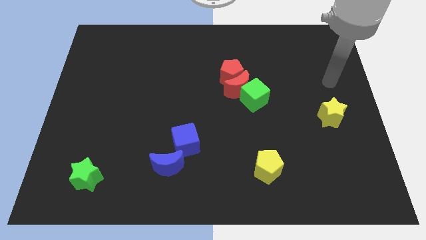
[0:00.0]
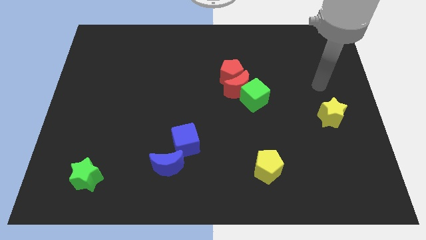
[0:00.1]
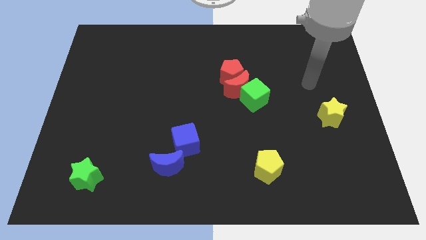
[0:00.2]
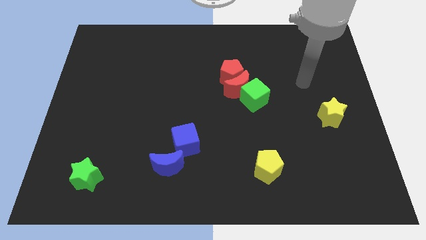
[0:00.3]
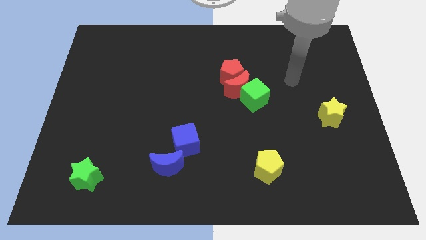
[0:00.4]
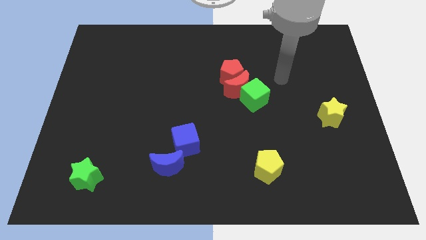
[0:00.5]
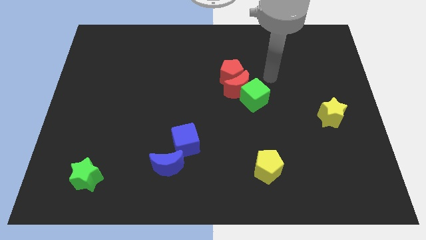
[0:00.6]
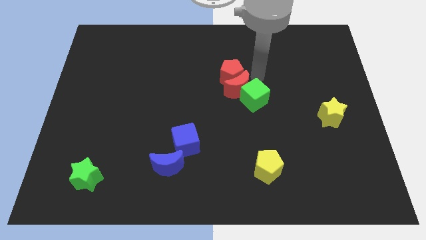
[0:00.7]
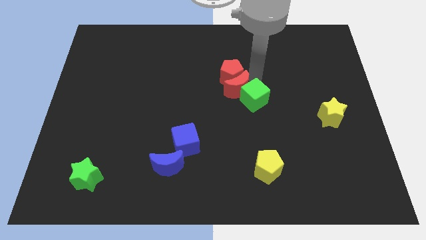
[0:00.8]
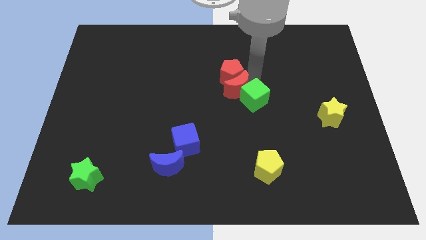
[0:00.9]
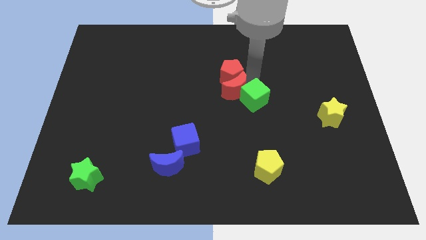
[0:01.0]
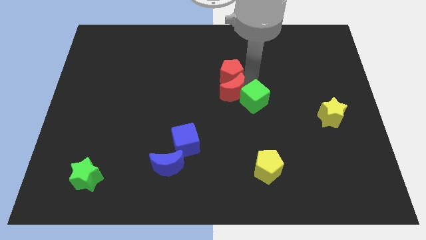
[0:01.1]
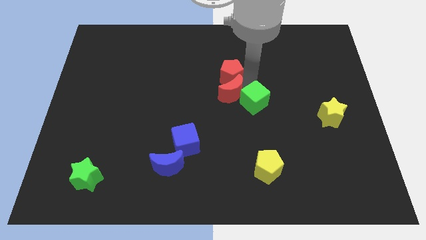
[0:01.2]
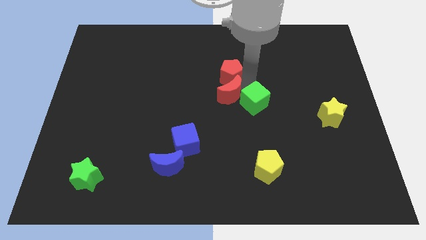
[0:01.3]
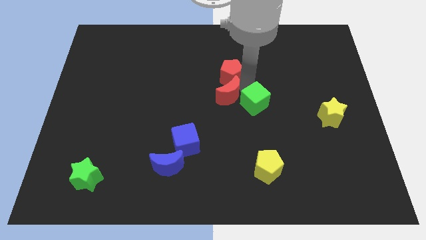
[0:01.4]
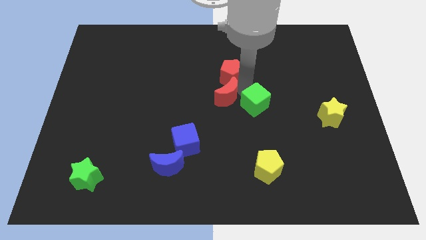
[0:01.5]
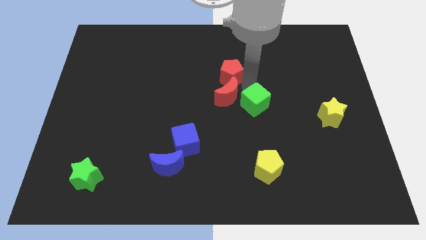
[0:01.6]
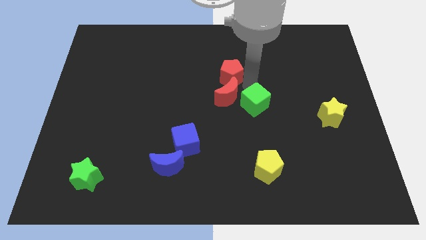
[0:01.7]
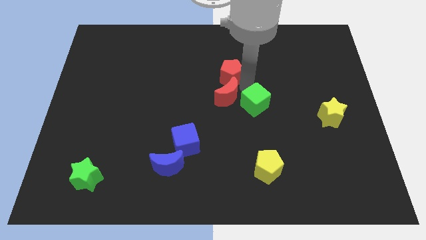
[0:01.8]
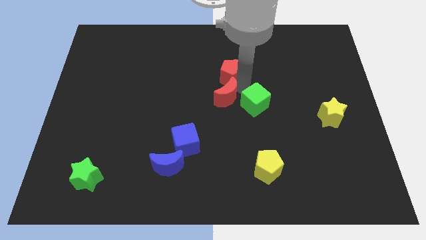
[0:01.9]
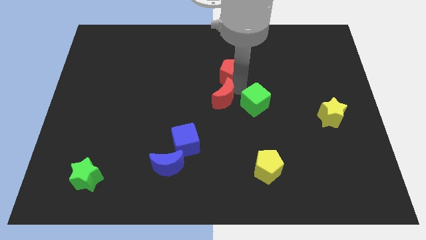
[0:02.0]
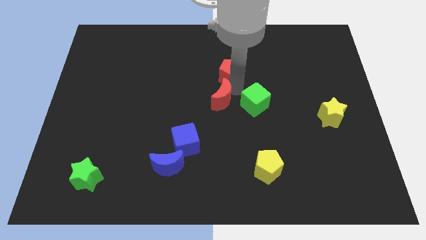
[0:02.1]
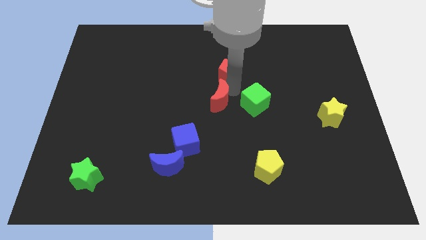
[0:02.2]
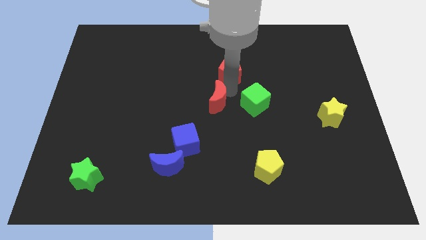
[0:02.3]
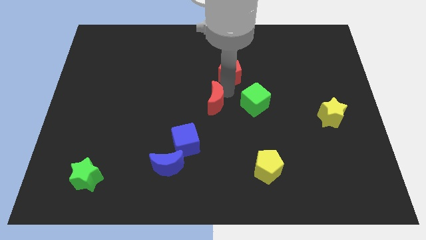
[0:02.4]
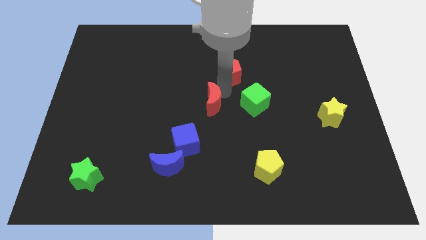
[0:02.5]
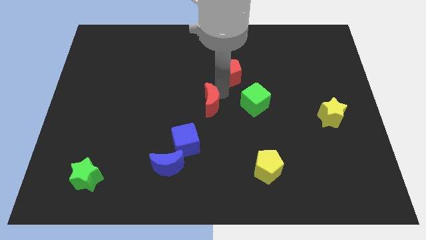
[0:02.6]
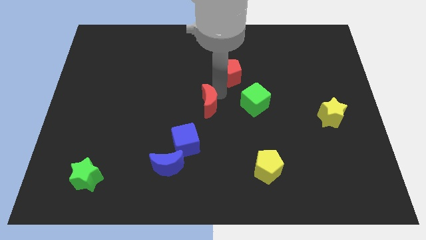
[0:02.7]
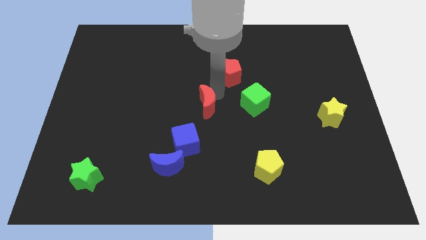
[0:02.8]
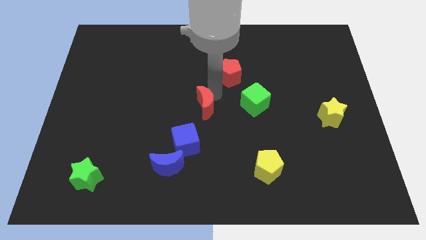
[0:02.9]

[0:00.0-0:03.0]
pull the red moon apart from the green cube and red pentagon

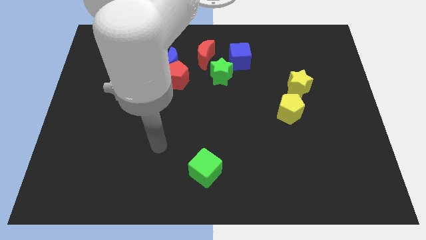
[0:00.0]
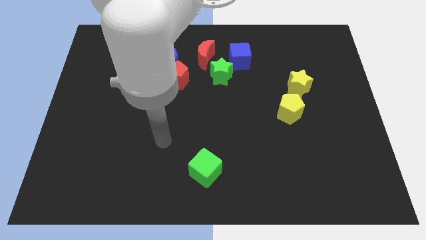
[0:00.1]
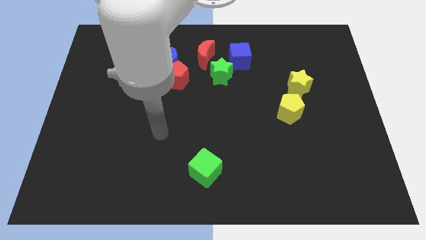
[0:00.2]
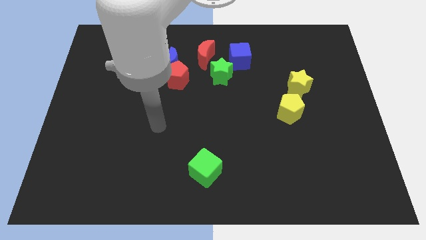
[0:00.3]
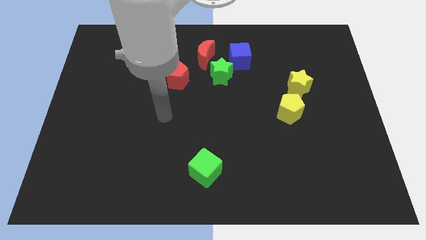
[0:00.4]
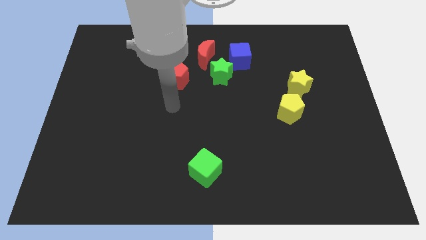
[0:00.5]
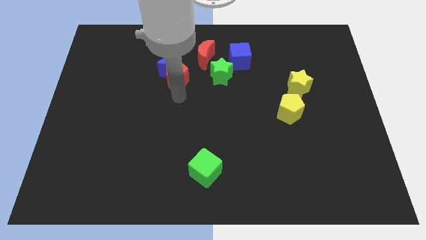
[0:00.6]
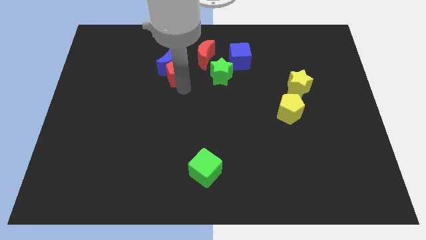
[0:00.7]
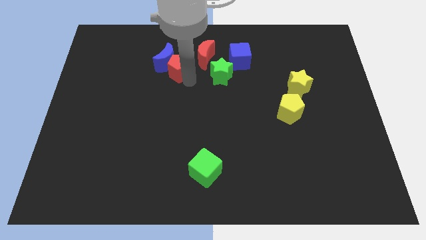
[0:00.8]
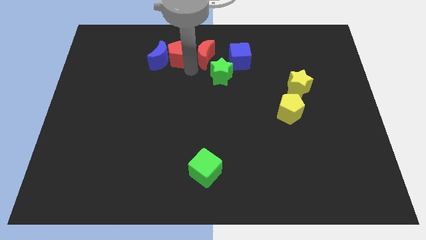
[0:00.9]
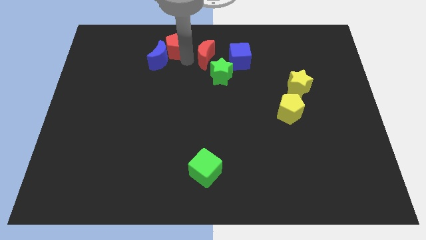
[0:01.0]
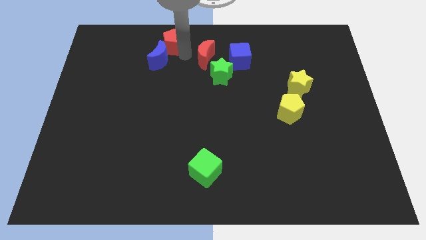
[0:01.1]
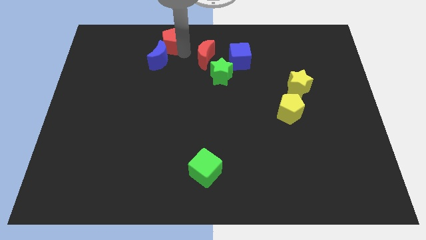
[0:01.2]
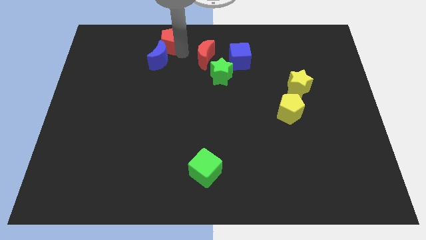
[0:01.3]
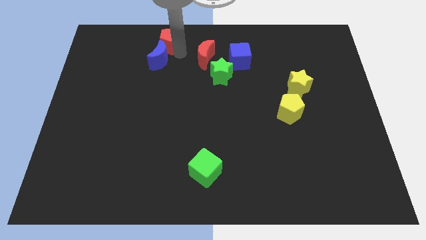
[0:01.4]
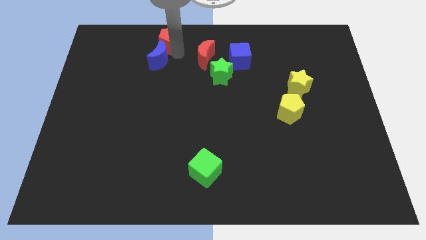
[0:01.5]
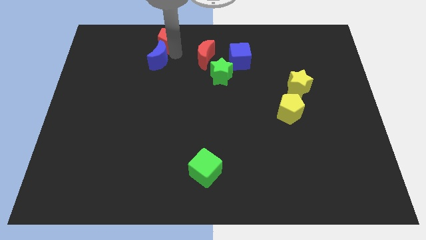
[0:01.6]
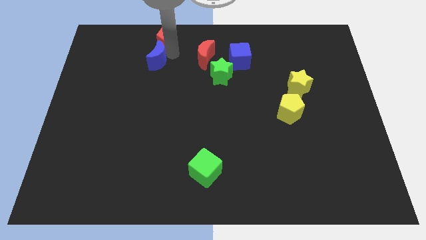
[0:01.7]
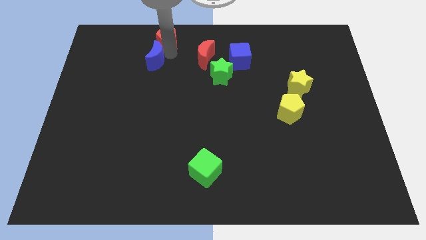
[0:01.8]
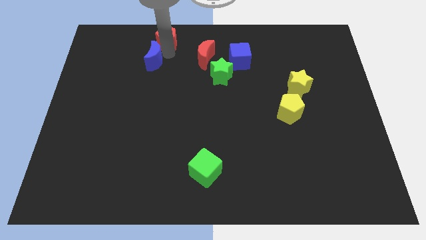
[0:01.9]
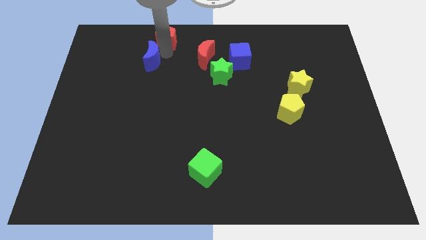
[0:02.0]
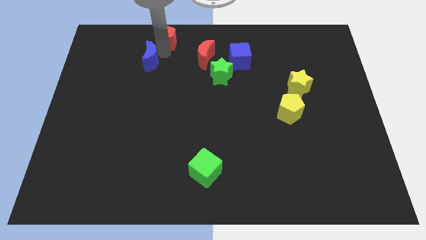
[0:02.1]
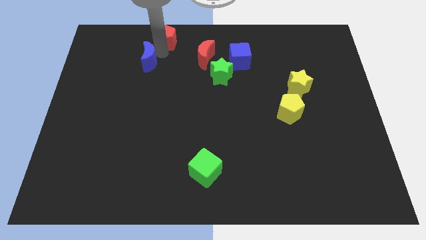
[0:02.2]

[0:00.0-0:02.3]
move the blue moon away from the red pentagon and red moon

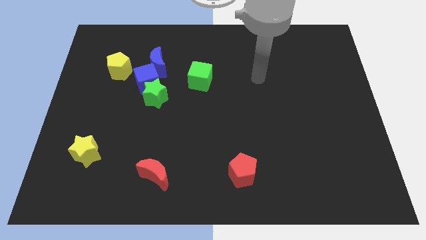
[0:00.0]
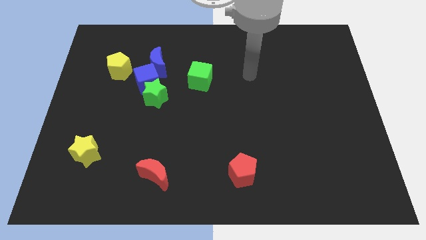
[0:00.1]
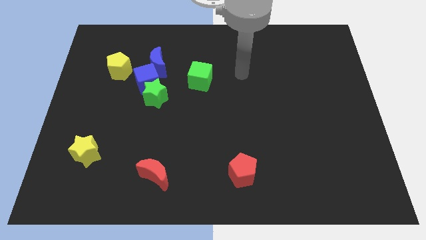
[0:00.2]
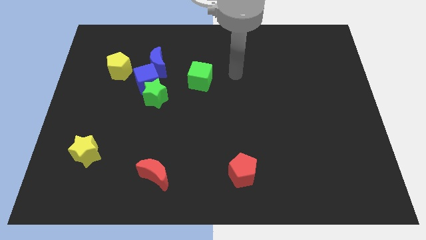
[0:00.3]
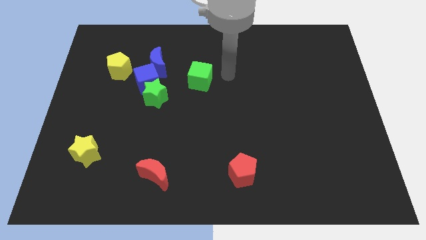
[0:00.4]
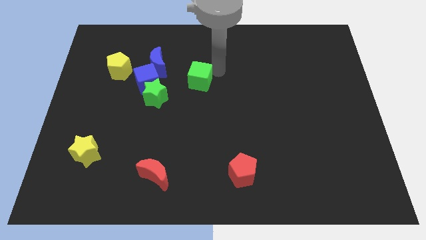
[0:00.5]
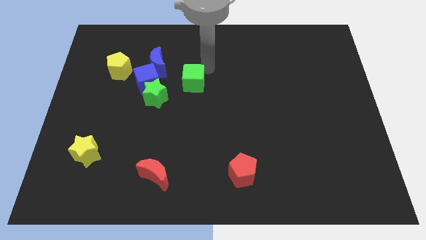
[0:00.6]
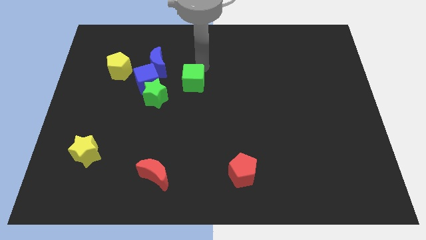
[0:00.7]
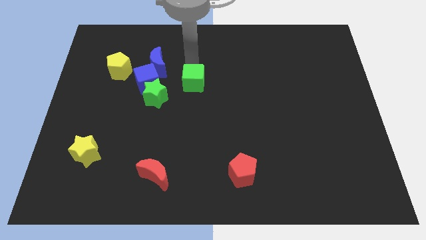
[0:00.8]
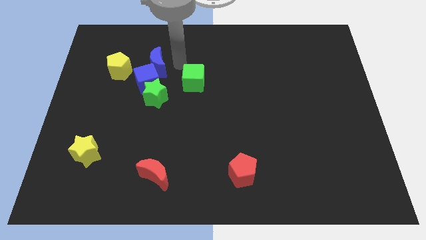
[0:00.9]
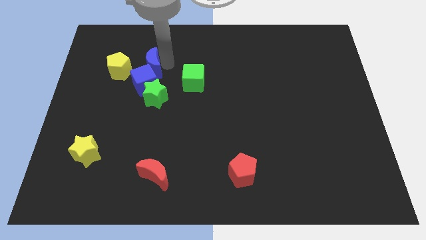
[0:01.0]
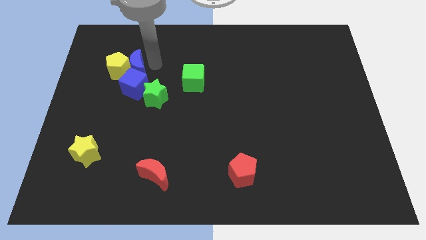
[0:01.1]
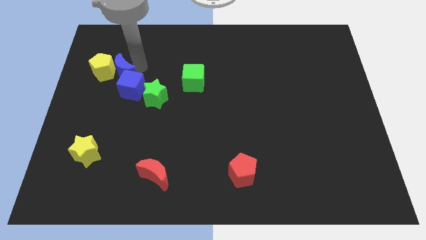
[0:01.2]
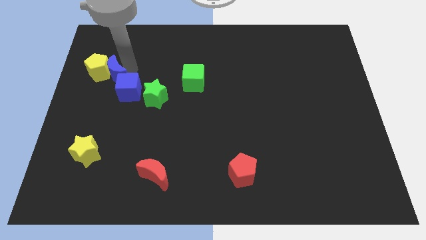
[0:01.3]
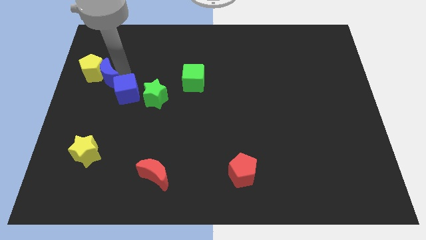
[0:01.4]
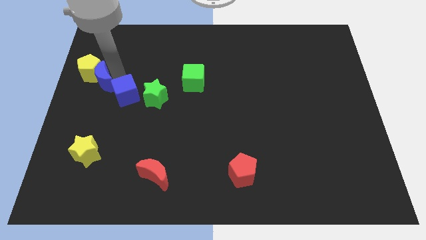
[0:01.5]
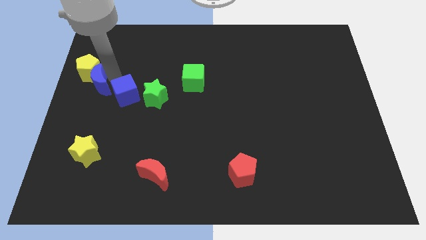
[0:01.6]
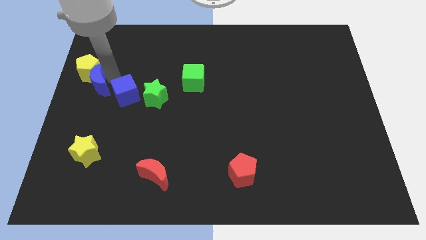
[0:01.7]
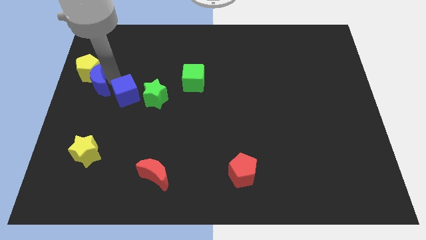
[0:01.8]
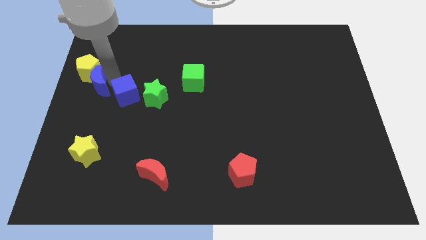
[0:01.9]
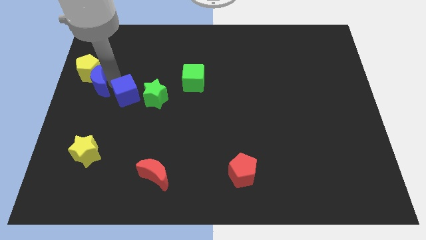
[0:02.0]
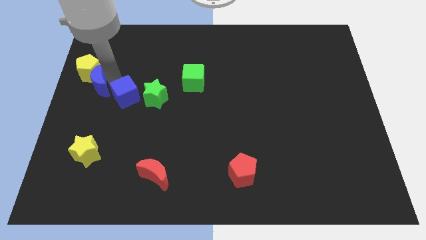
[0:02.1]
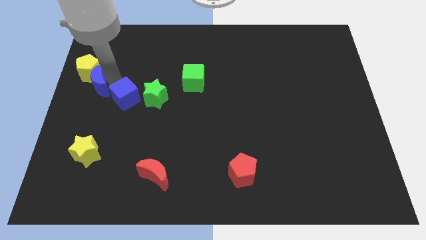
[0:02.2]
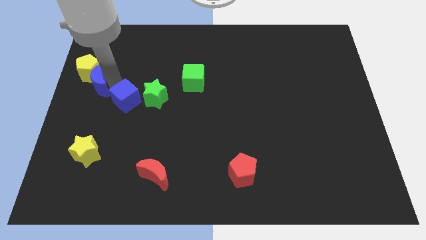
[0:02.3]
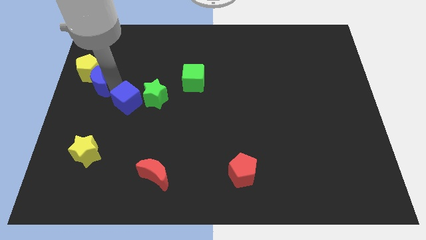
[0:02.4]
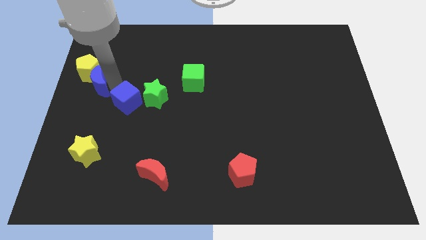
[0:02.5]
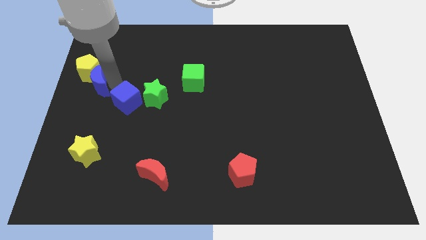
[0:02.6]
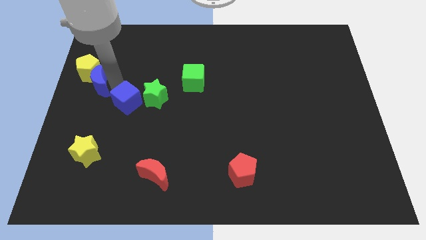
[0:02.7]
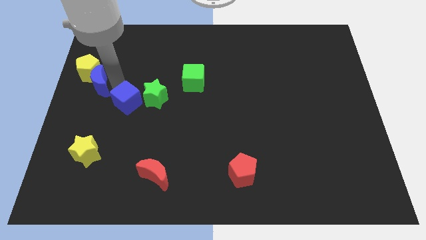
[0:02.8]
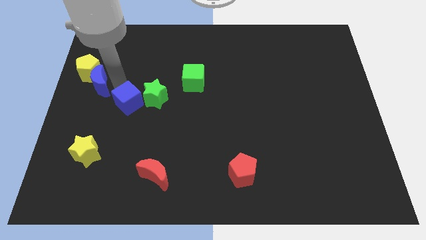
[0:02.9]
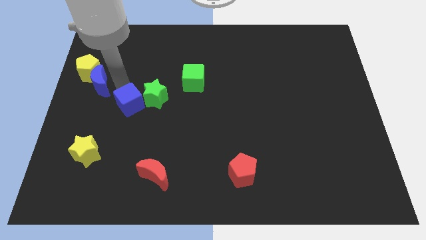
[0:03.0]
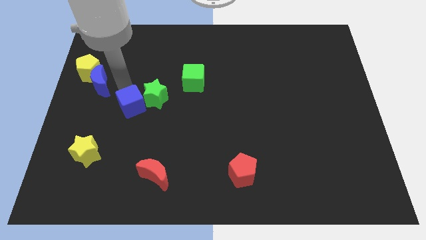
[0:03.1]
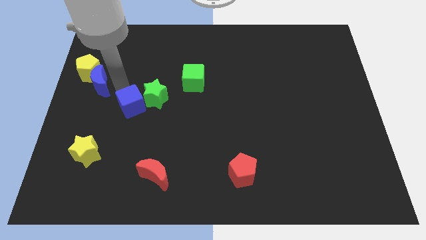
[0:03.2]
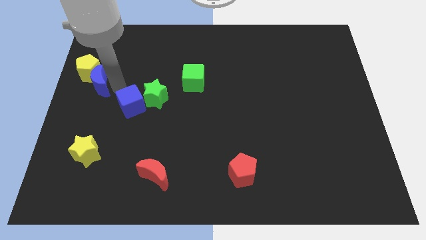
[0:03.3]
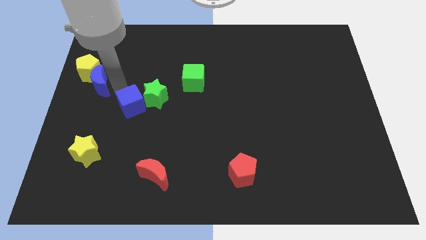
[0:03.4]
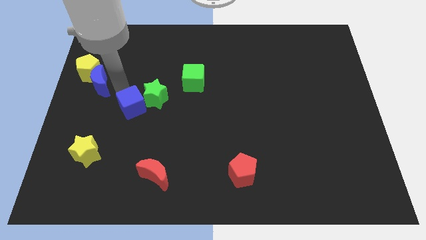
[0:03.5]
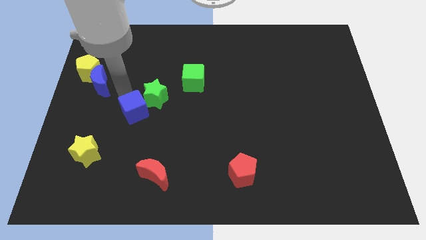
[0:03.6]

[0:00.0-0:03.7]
pull the blue cube apart from the group of blocks

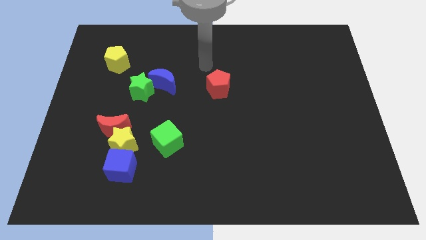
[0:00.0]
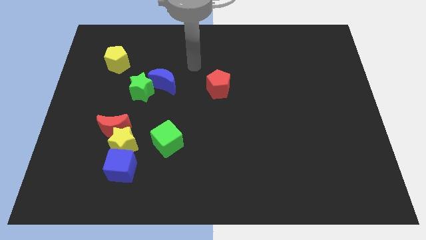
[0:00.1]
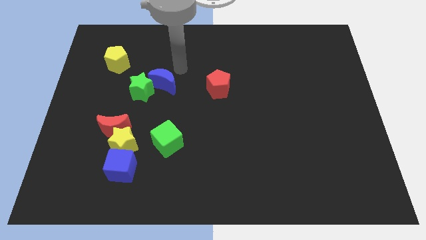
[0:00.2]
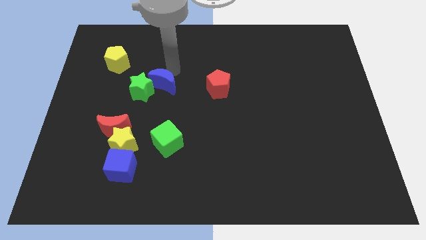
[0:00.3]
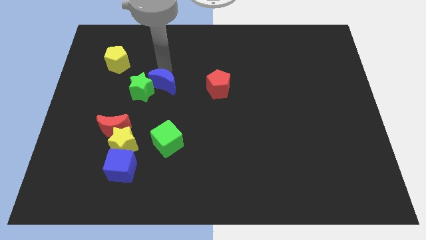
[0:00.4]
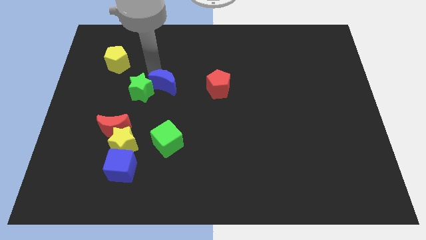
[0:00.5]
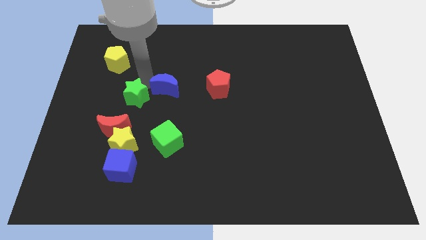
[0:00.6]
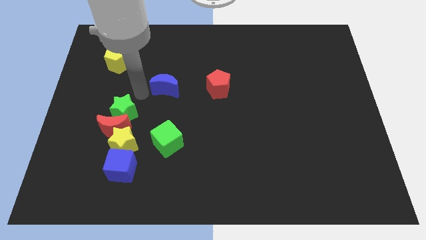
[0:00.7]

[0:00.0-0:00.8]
separate the blue moon from the green star
